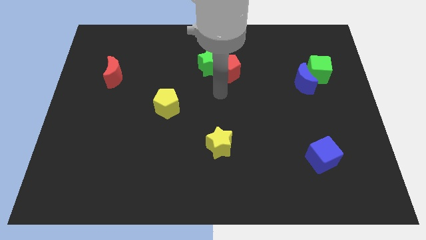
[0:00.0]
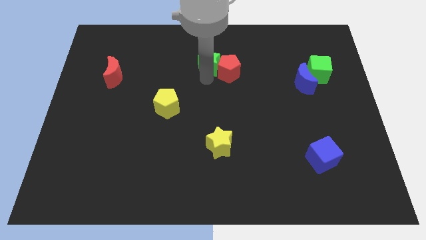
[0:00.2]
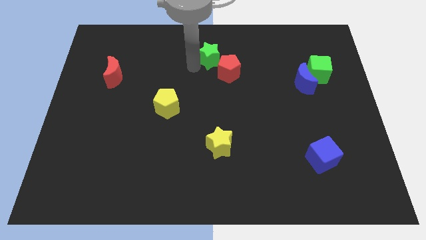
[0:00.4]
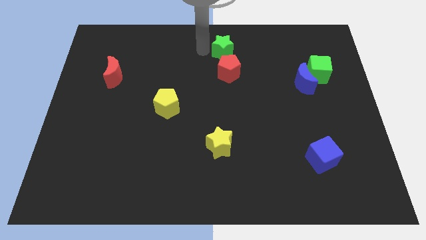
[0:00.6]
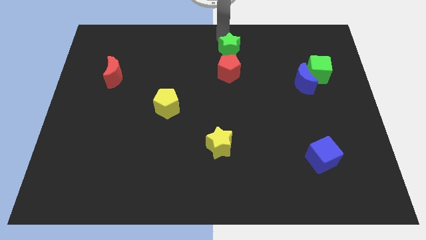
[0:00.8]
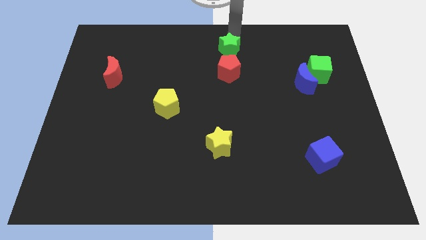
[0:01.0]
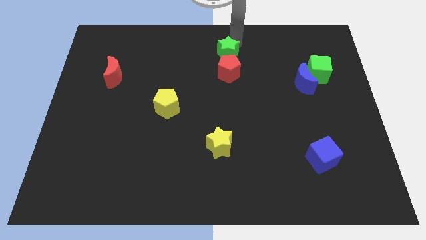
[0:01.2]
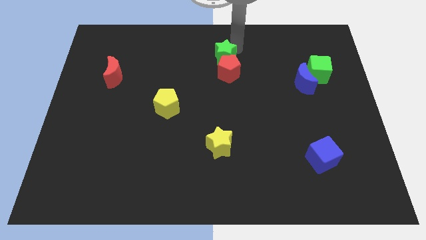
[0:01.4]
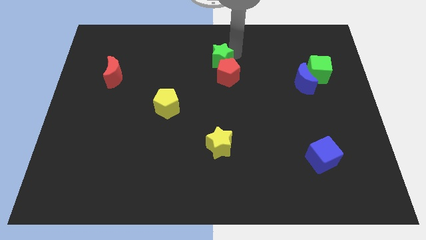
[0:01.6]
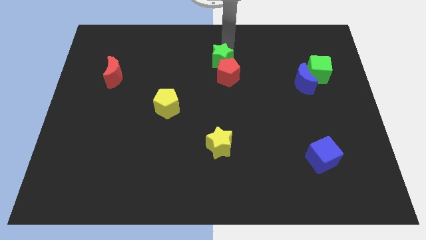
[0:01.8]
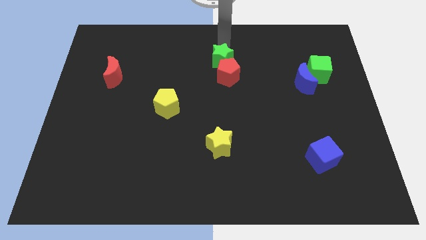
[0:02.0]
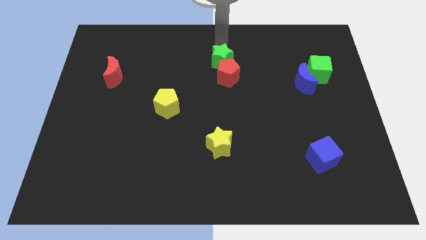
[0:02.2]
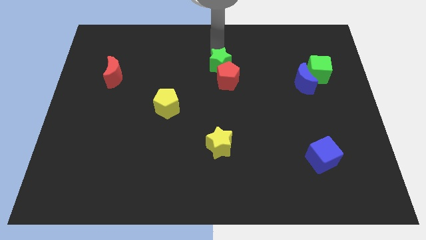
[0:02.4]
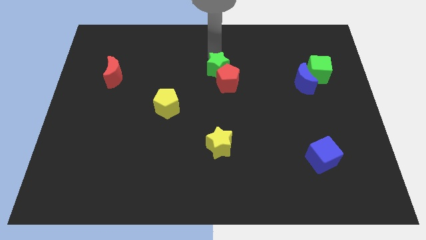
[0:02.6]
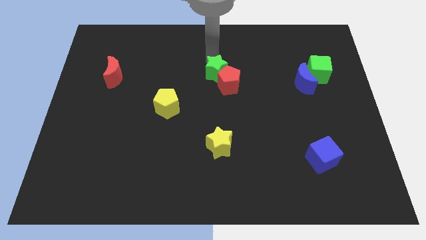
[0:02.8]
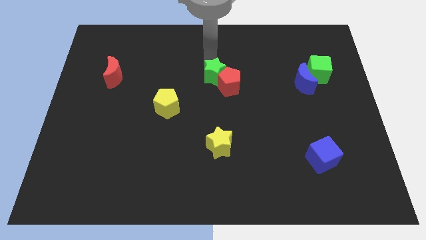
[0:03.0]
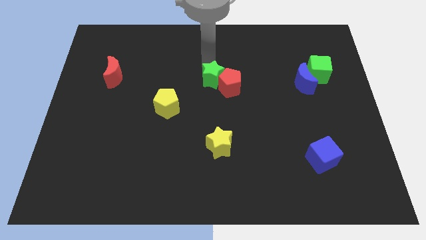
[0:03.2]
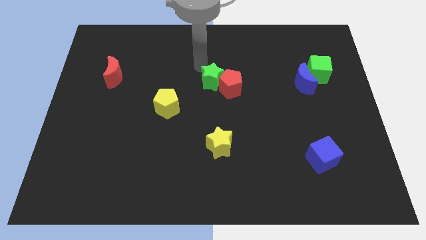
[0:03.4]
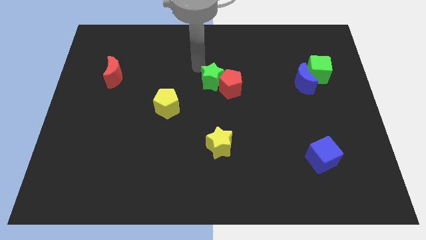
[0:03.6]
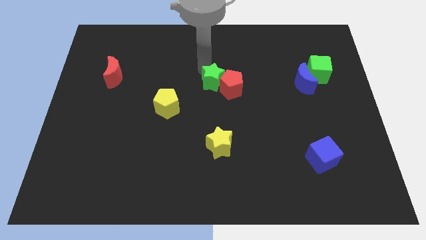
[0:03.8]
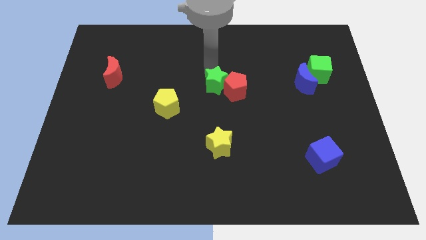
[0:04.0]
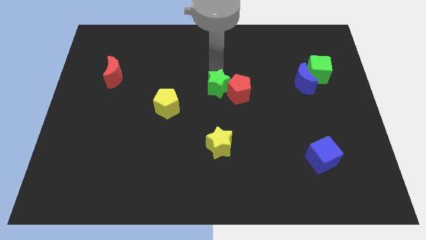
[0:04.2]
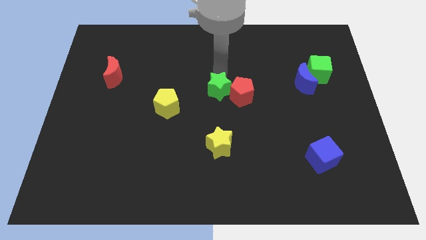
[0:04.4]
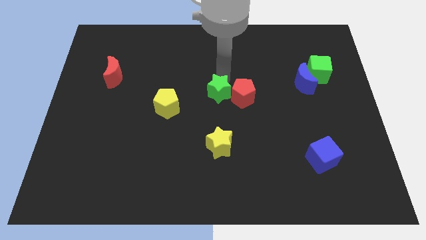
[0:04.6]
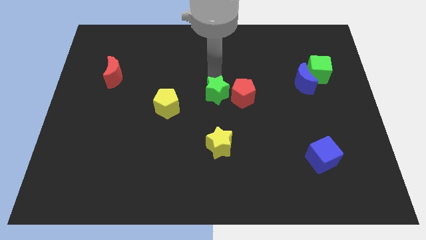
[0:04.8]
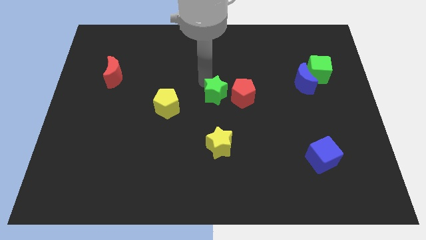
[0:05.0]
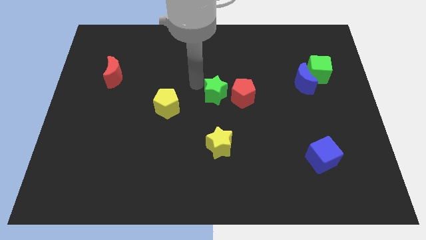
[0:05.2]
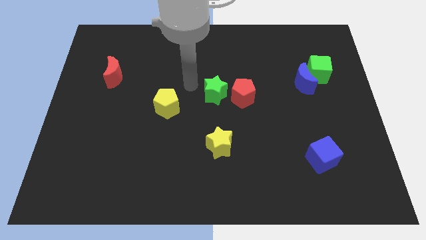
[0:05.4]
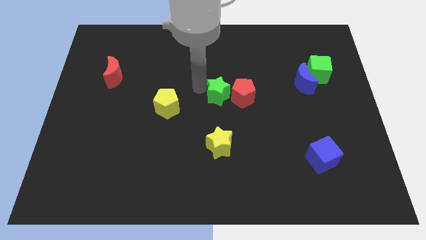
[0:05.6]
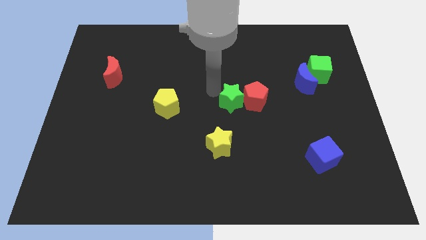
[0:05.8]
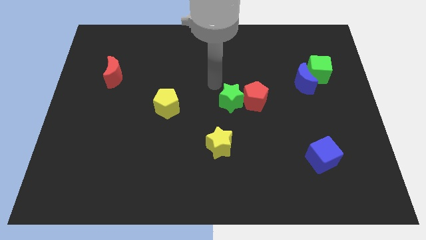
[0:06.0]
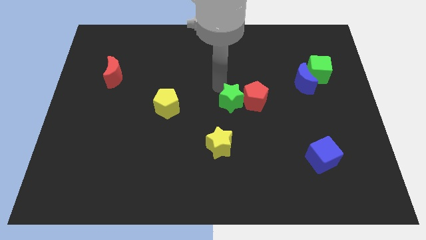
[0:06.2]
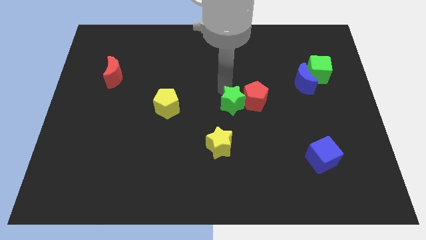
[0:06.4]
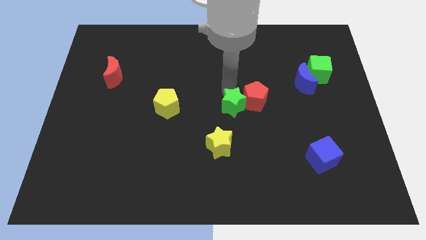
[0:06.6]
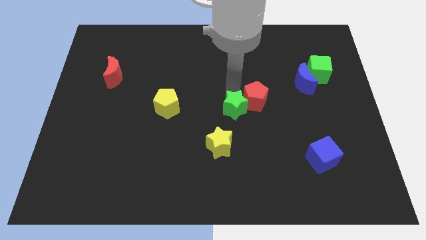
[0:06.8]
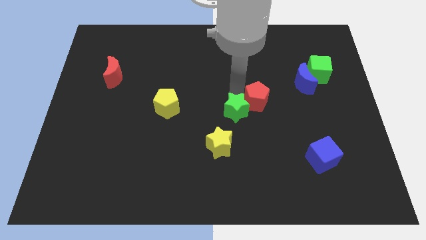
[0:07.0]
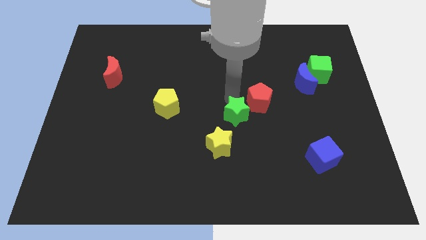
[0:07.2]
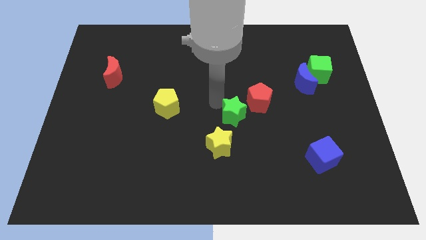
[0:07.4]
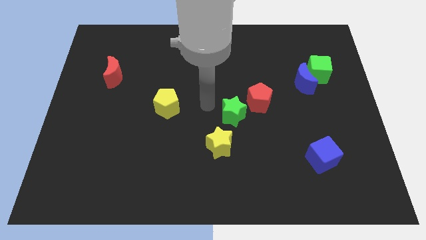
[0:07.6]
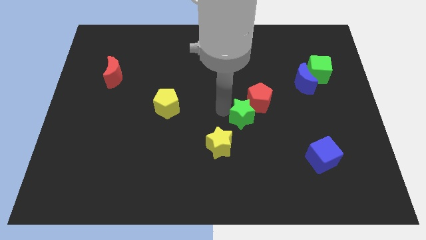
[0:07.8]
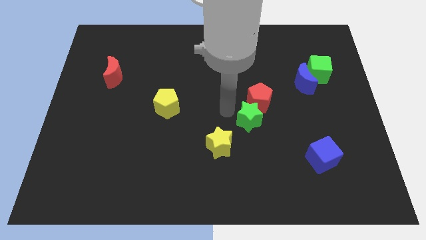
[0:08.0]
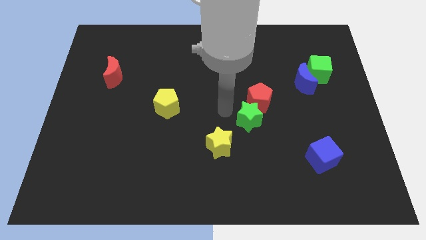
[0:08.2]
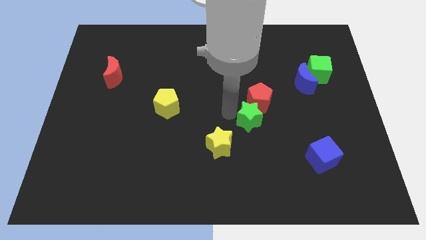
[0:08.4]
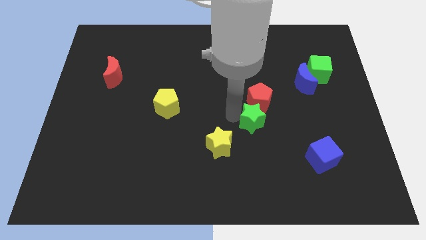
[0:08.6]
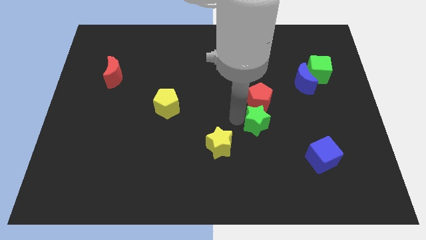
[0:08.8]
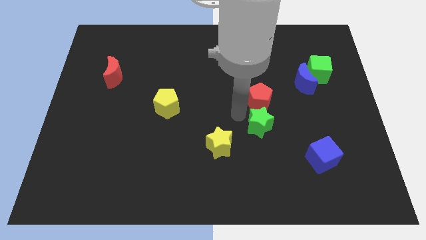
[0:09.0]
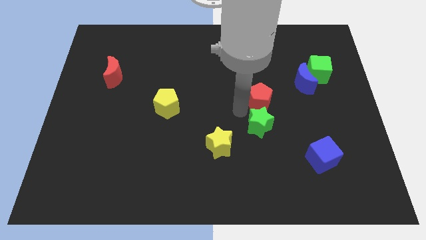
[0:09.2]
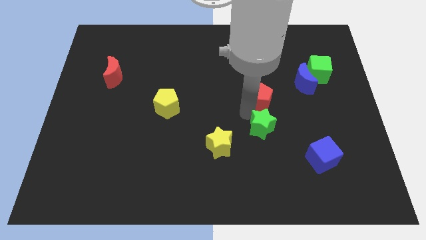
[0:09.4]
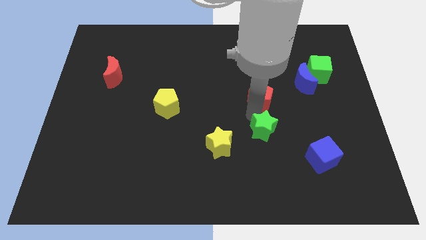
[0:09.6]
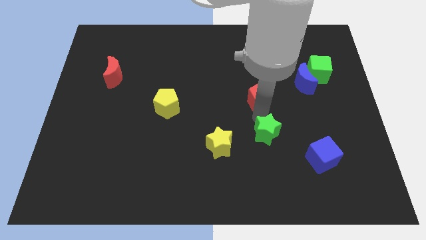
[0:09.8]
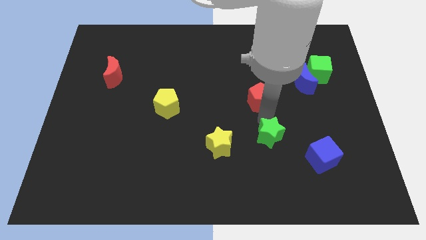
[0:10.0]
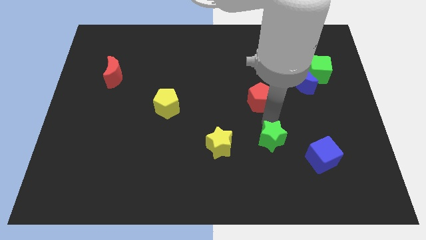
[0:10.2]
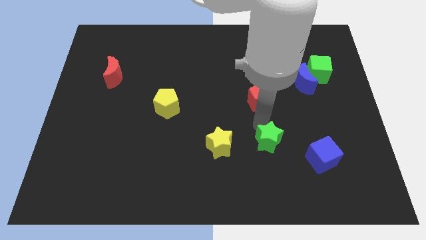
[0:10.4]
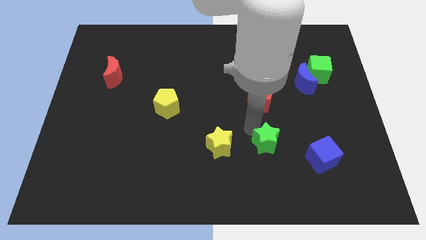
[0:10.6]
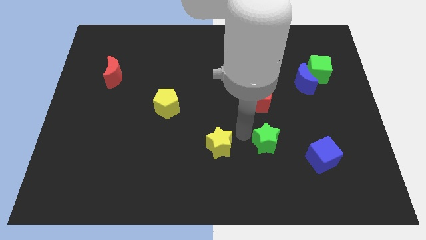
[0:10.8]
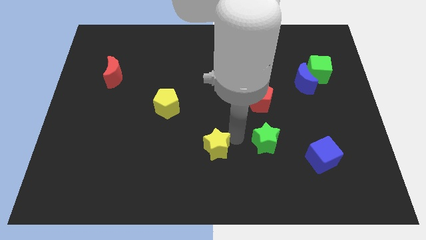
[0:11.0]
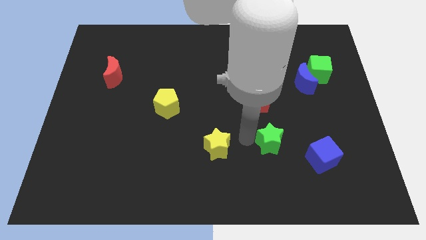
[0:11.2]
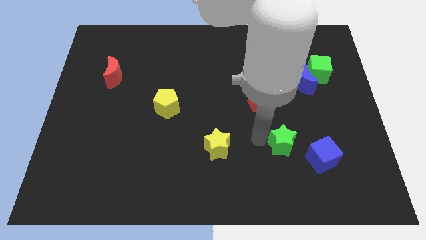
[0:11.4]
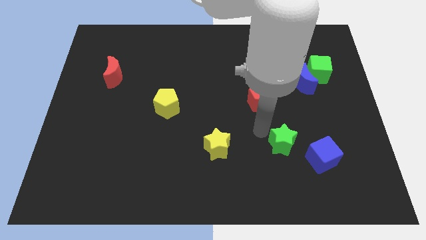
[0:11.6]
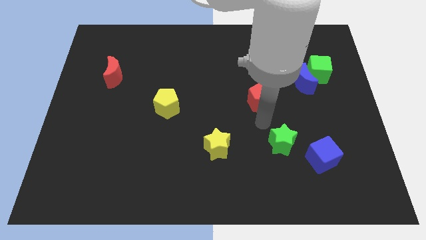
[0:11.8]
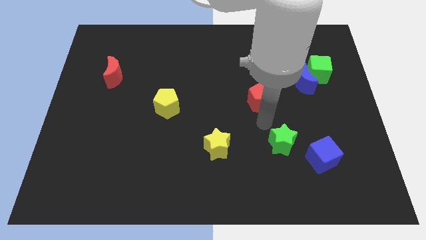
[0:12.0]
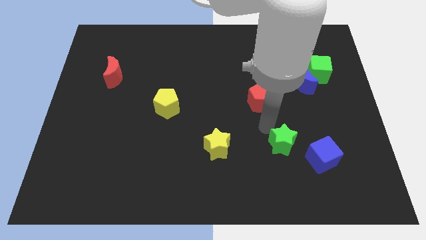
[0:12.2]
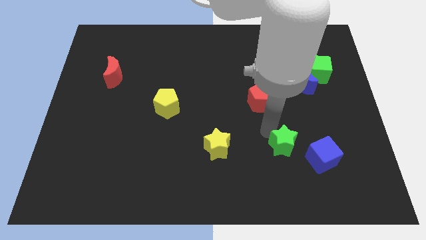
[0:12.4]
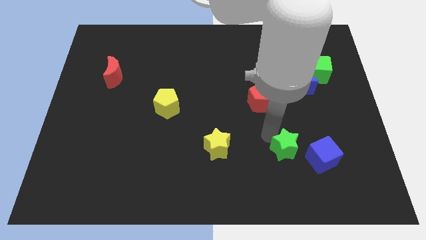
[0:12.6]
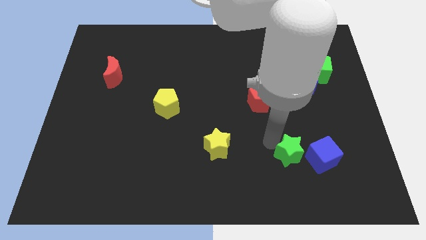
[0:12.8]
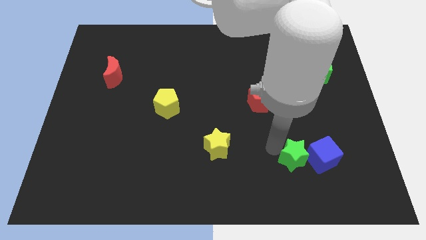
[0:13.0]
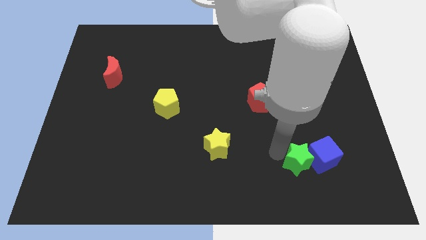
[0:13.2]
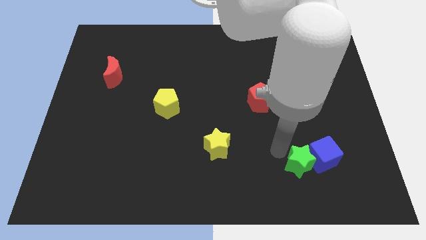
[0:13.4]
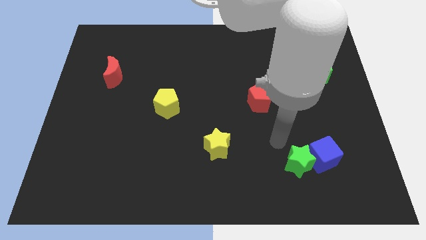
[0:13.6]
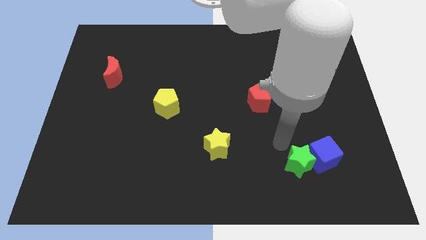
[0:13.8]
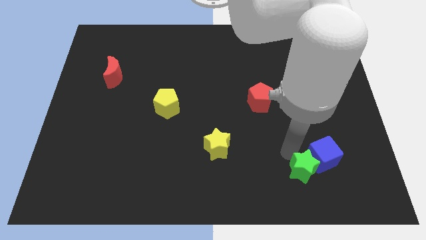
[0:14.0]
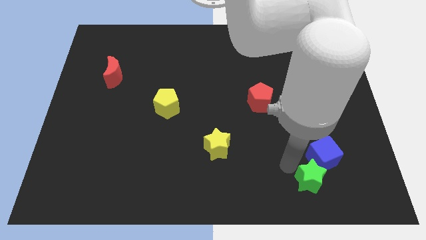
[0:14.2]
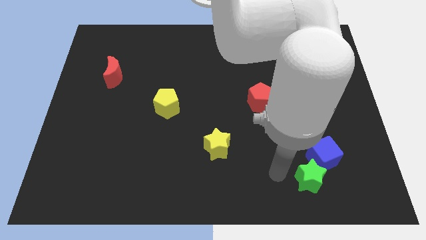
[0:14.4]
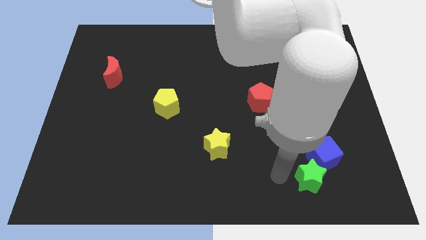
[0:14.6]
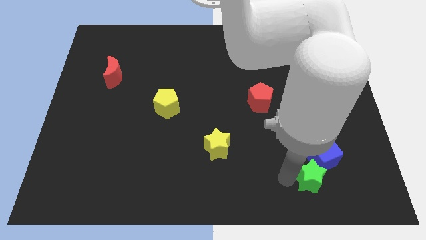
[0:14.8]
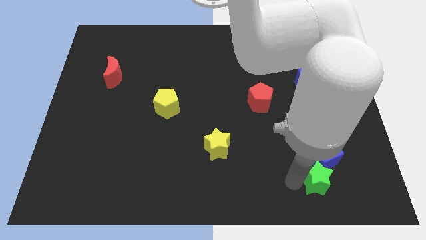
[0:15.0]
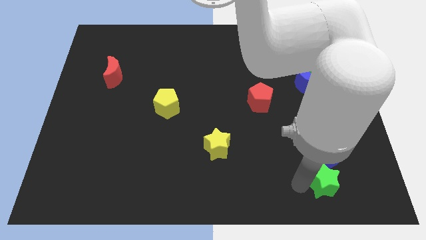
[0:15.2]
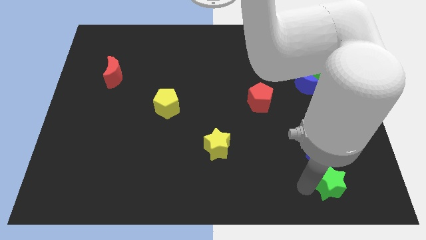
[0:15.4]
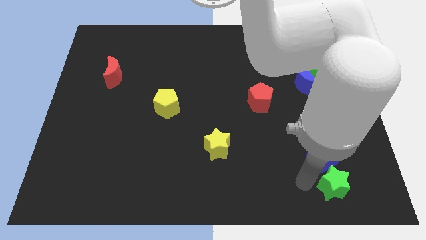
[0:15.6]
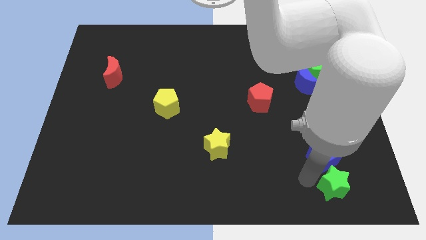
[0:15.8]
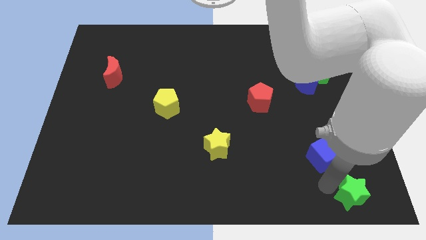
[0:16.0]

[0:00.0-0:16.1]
put the green star to the bottom right of the board
